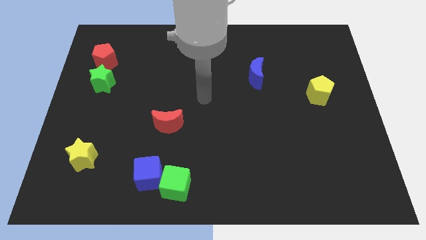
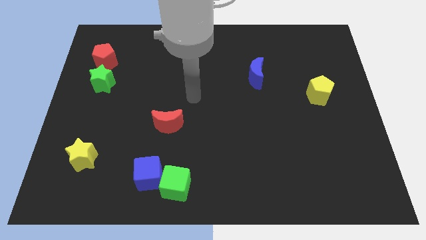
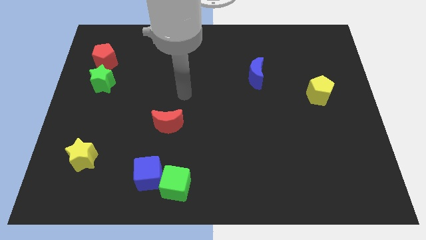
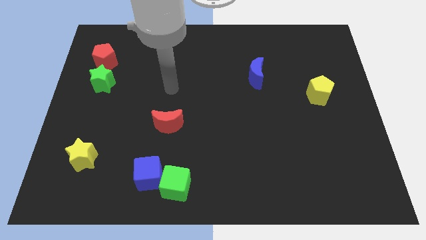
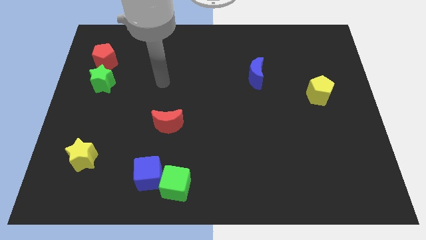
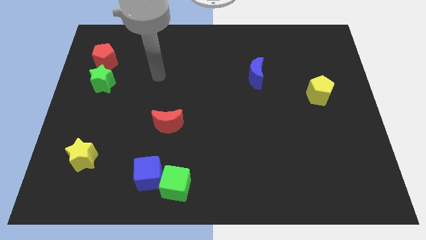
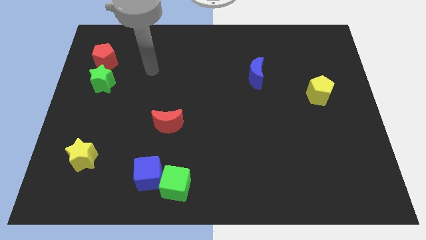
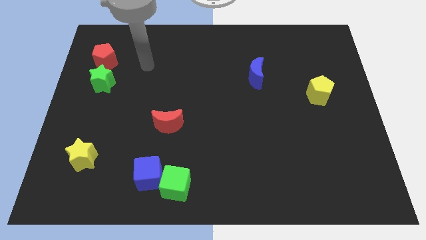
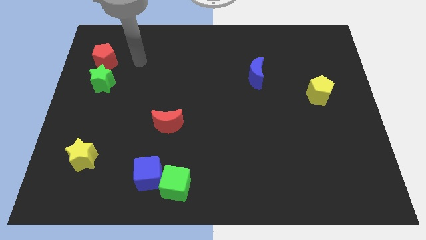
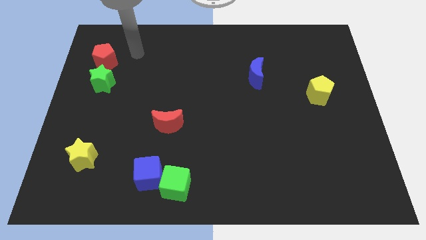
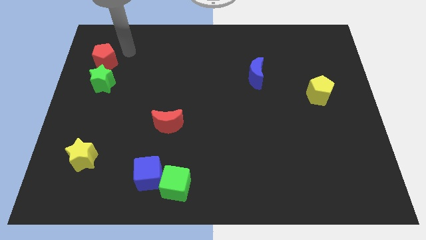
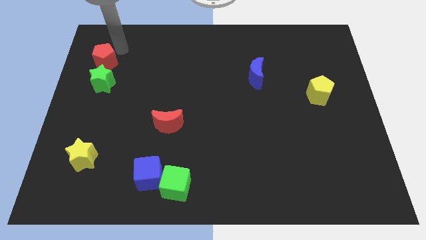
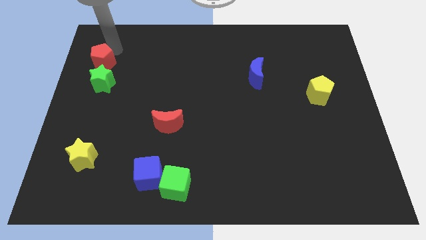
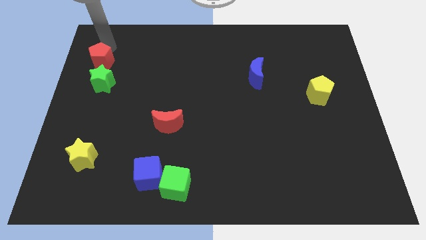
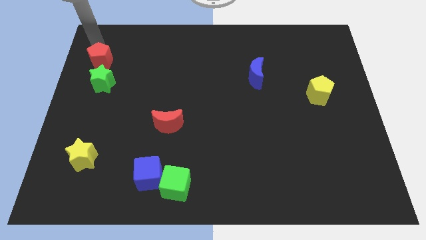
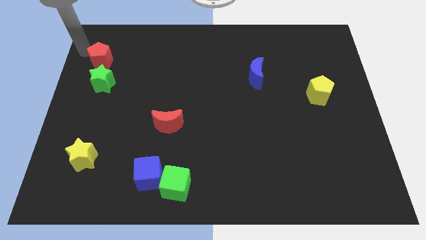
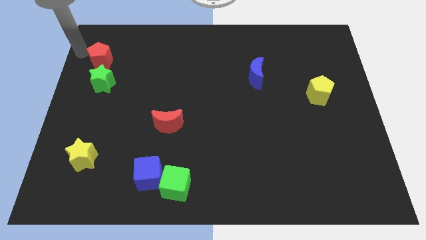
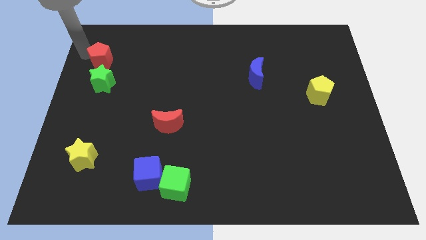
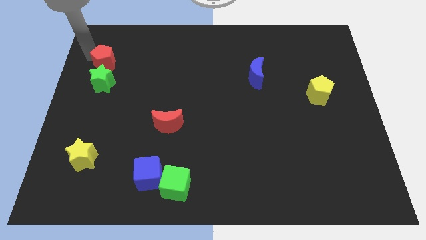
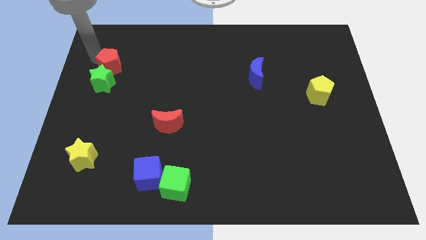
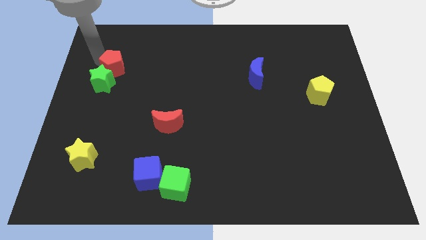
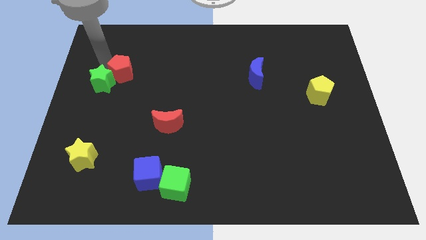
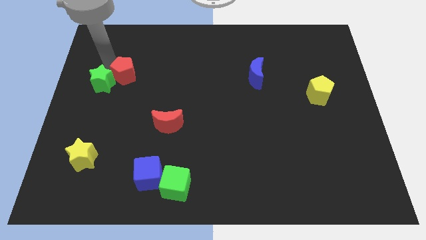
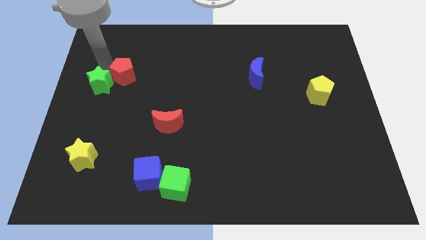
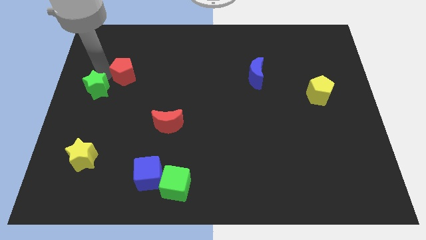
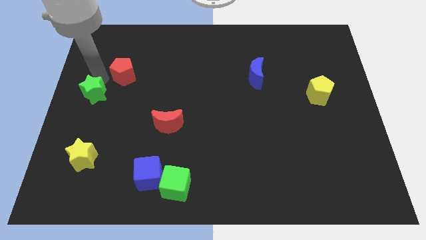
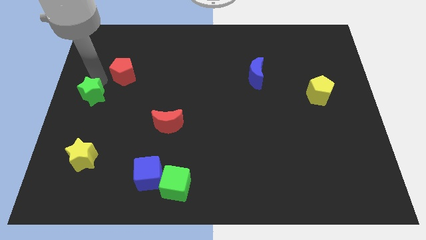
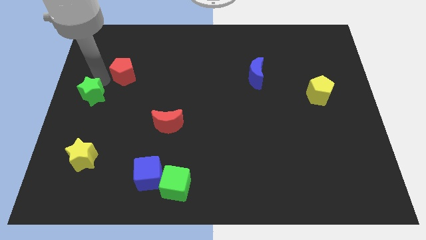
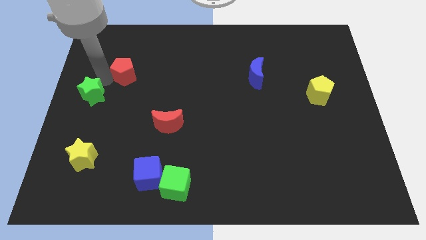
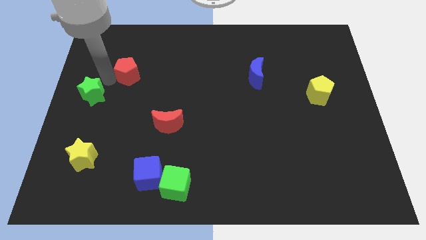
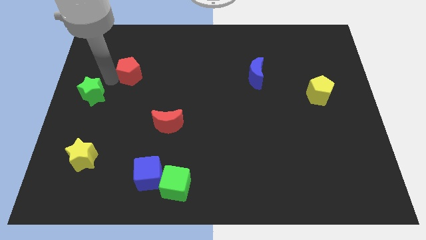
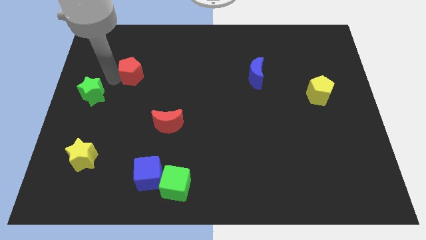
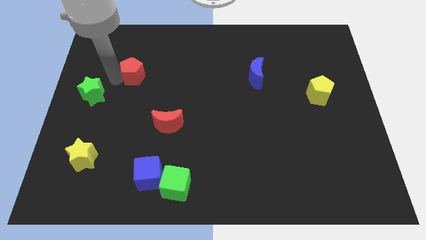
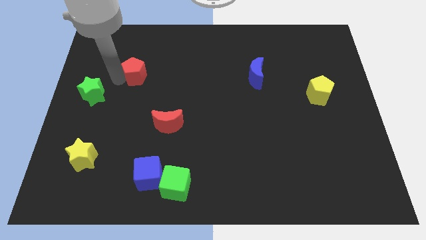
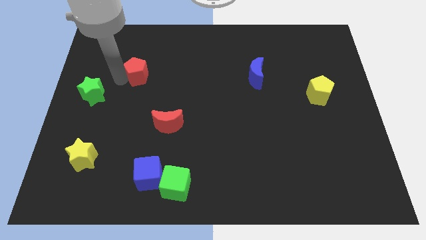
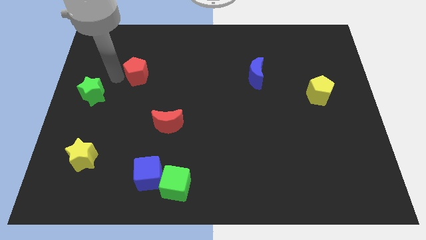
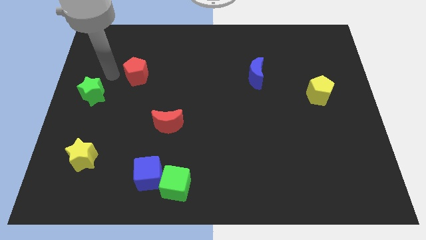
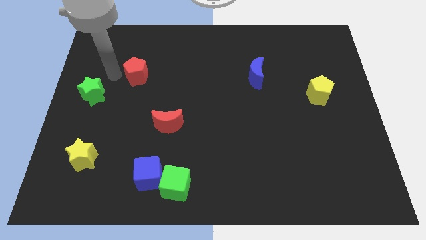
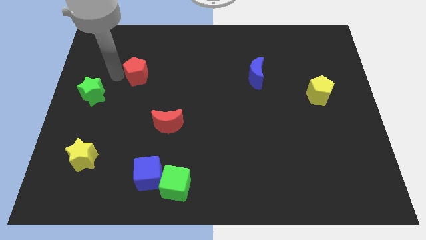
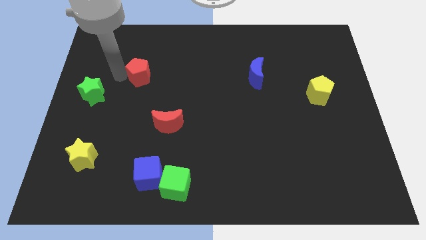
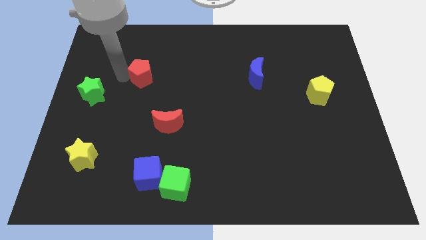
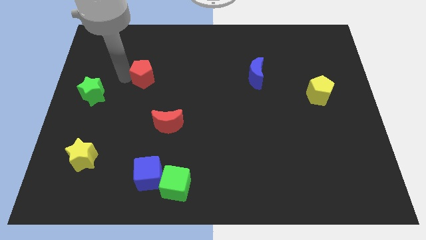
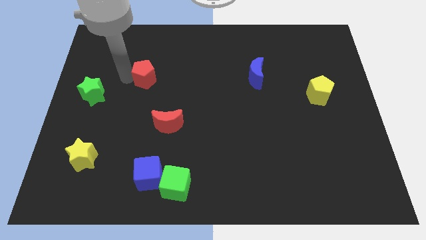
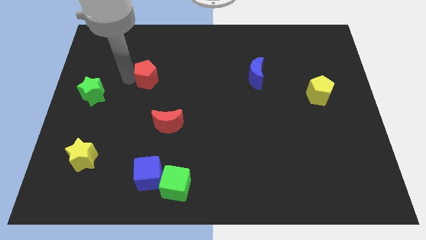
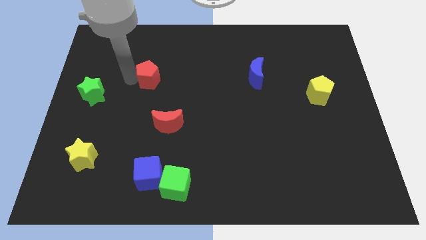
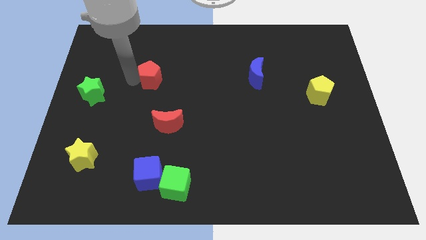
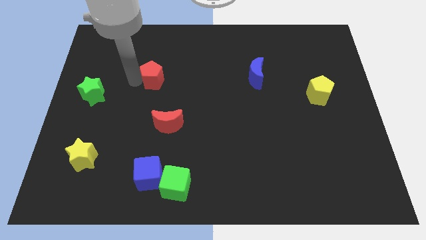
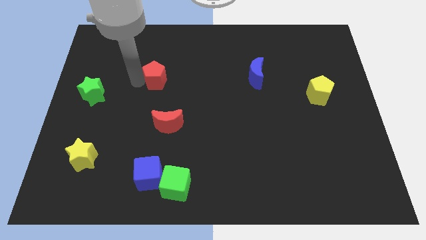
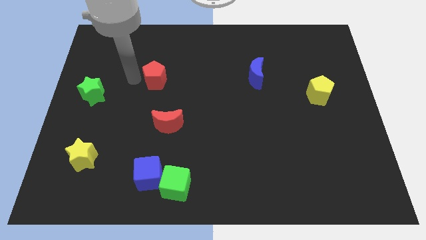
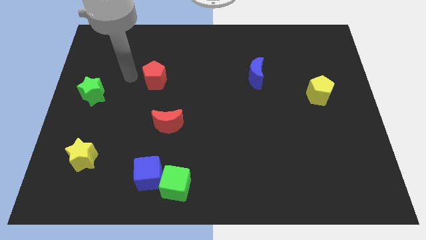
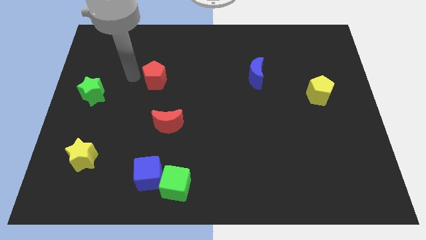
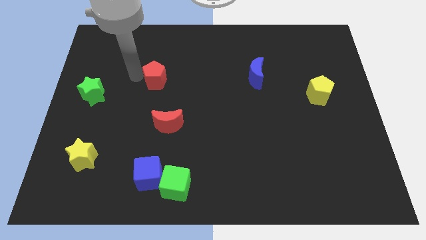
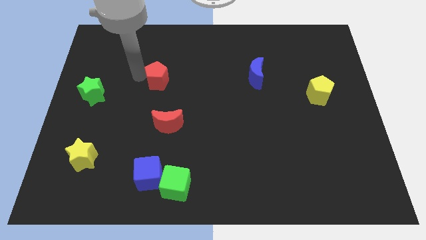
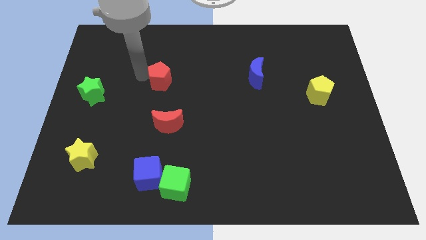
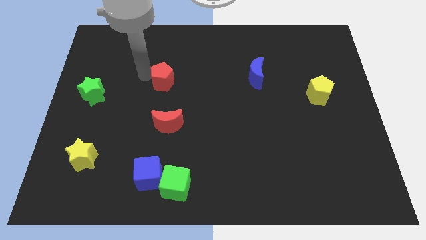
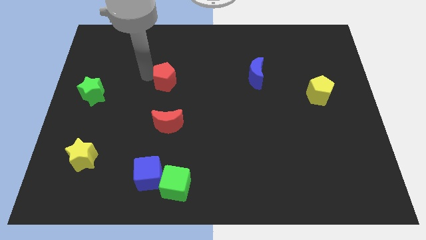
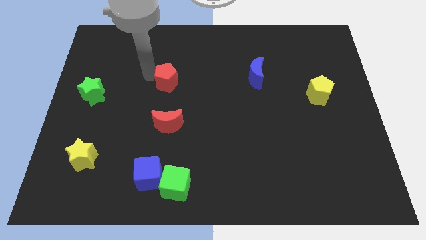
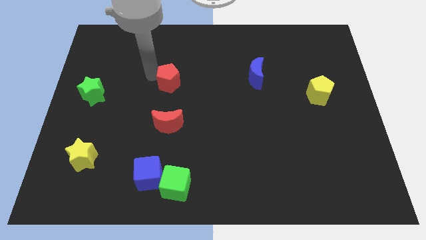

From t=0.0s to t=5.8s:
move the red pentagon to the middle

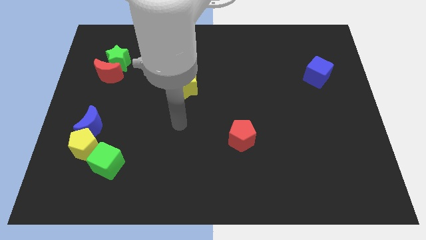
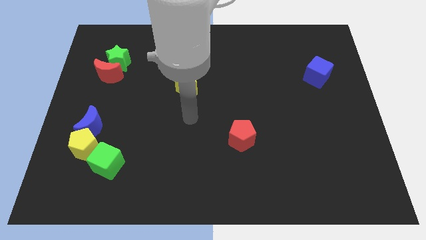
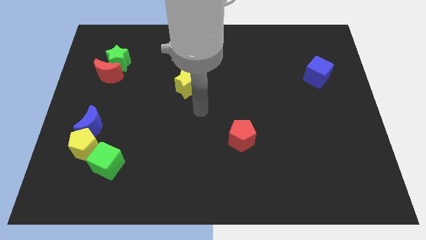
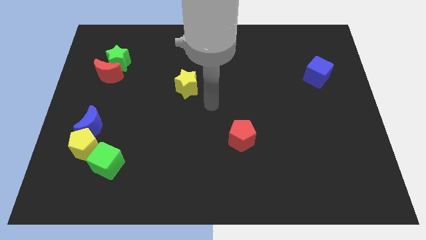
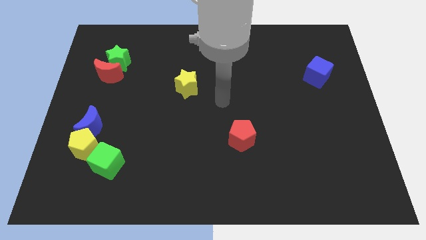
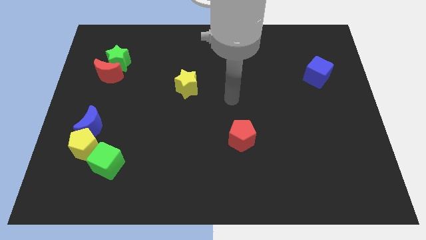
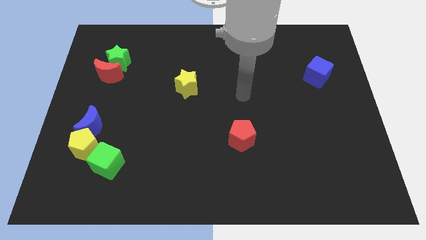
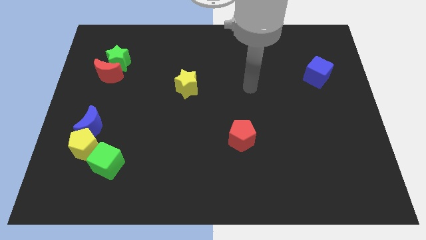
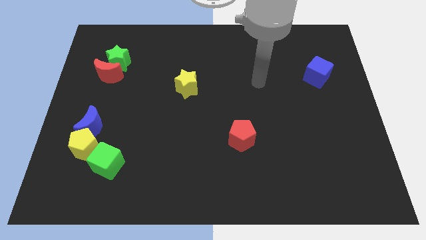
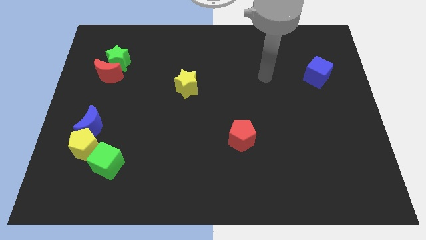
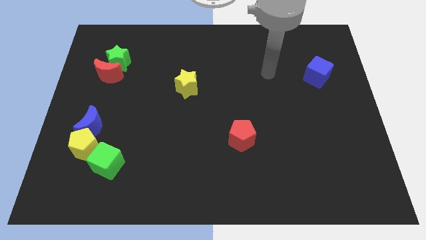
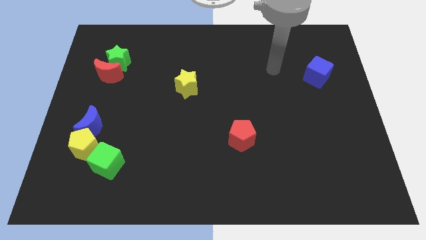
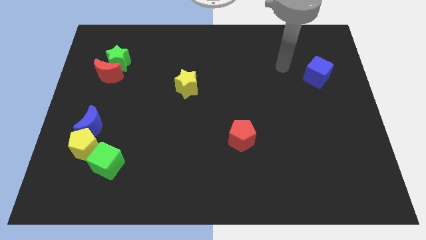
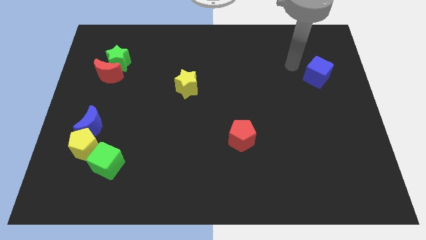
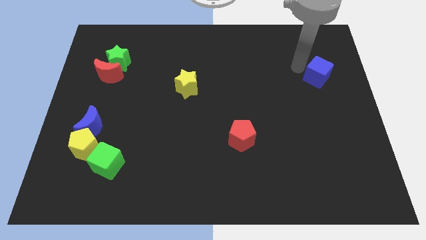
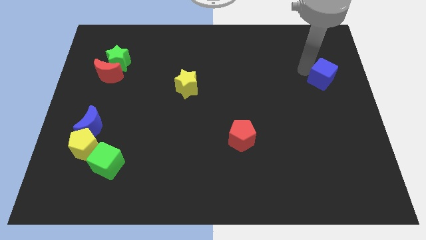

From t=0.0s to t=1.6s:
slide the blue cube to the center right
